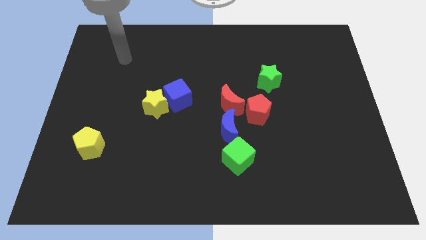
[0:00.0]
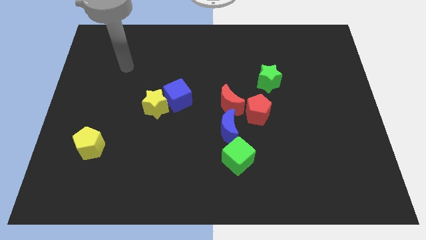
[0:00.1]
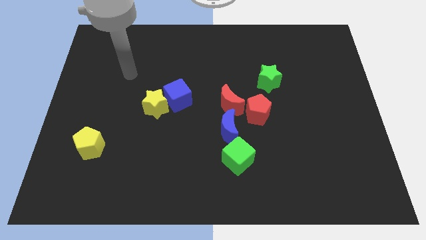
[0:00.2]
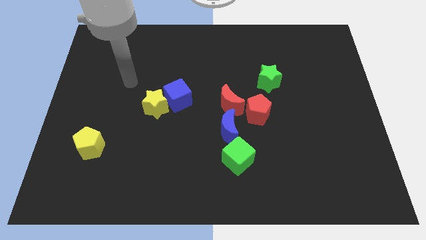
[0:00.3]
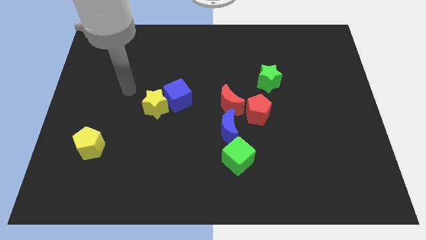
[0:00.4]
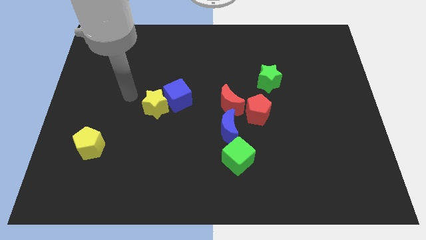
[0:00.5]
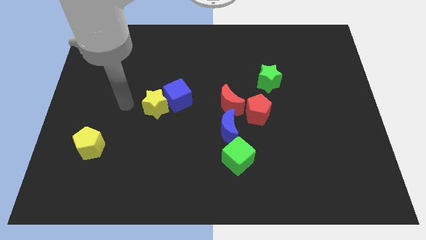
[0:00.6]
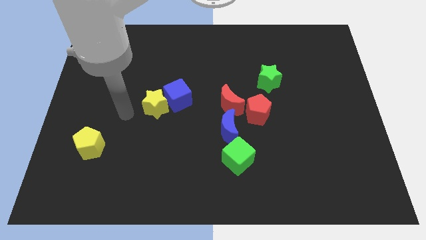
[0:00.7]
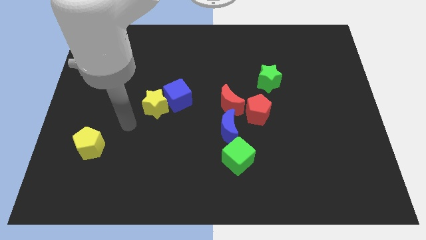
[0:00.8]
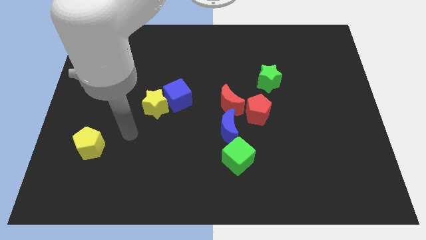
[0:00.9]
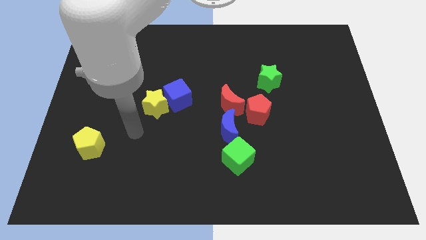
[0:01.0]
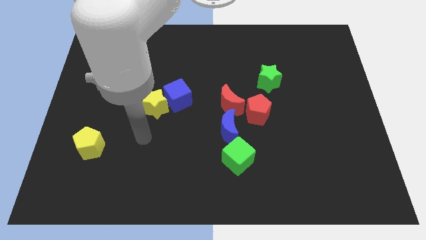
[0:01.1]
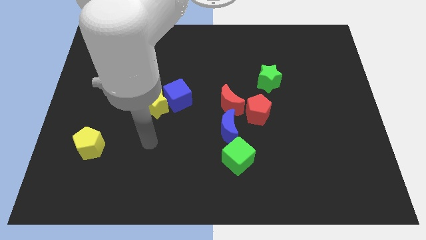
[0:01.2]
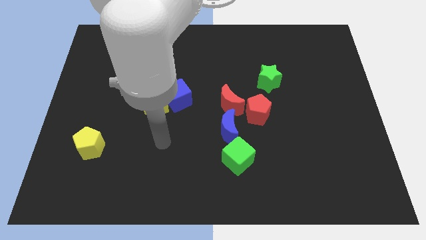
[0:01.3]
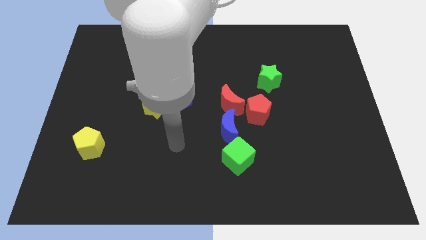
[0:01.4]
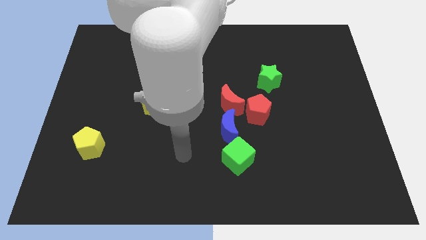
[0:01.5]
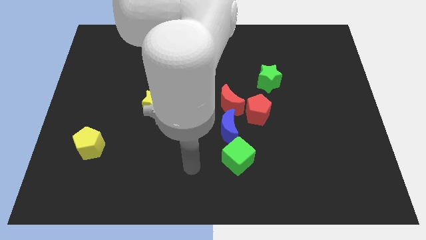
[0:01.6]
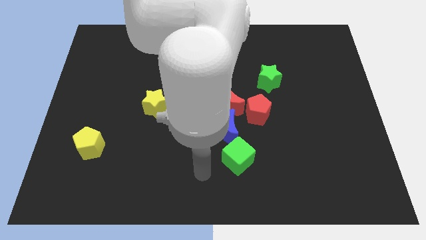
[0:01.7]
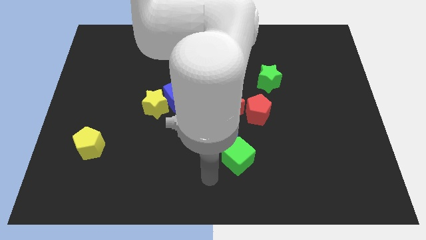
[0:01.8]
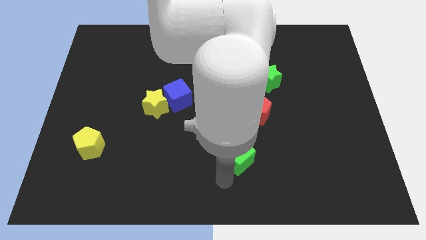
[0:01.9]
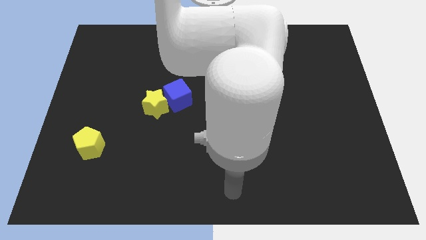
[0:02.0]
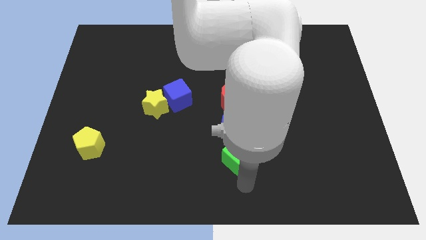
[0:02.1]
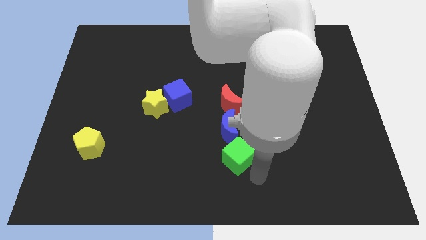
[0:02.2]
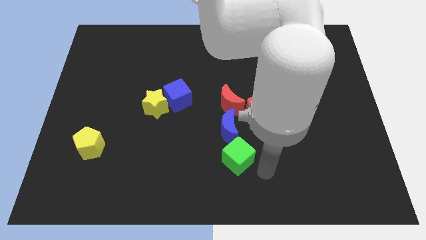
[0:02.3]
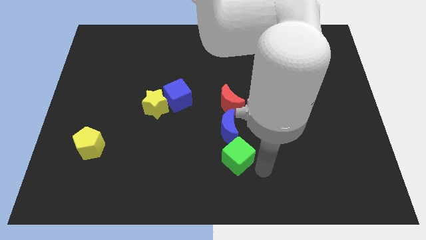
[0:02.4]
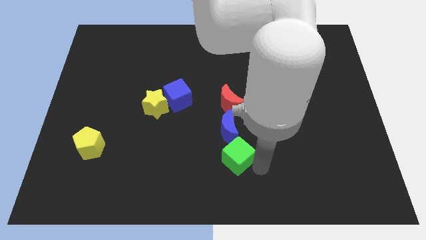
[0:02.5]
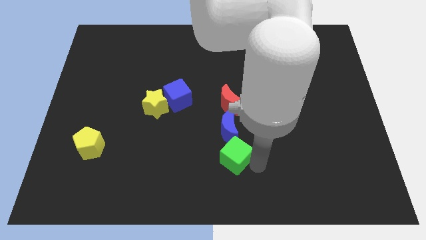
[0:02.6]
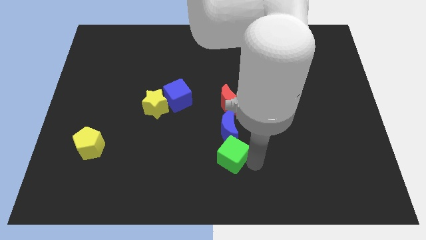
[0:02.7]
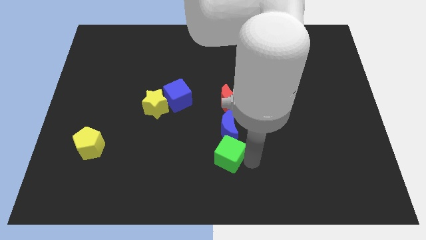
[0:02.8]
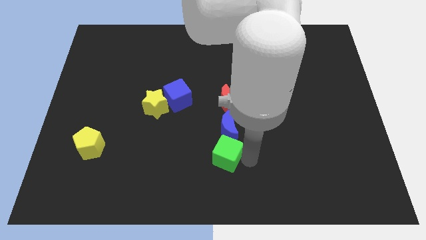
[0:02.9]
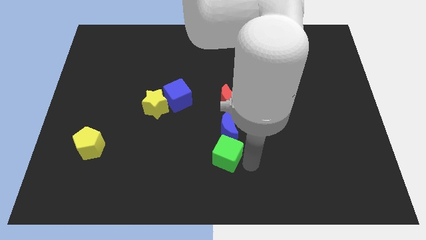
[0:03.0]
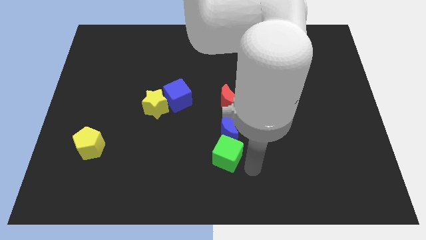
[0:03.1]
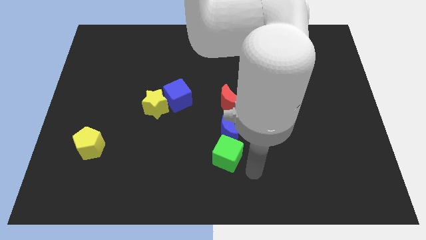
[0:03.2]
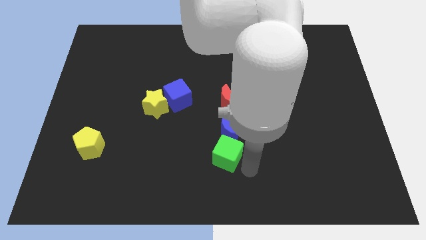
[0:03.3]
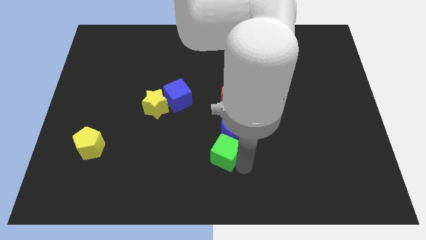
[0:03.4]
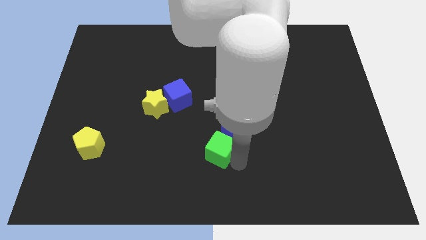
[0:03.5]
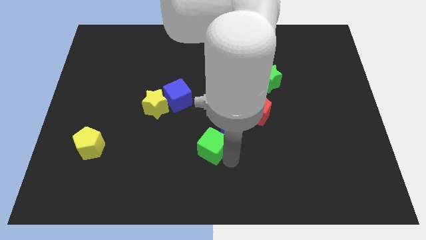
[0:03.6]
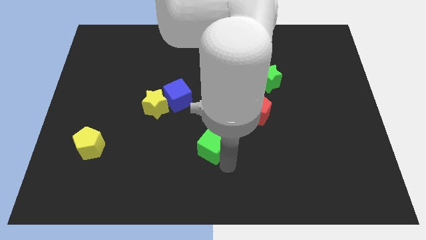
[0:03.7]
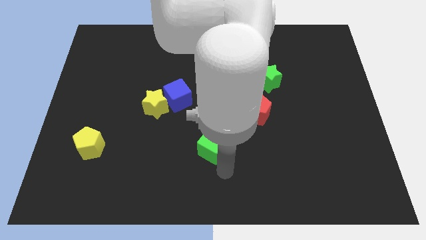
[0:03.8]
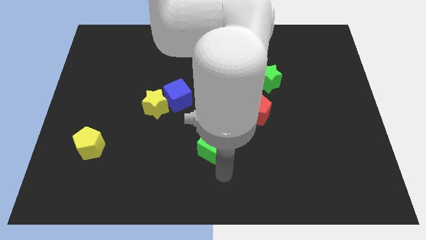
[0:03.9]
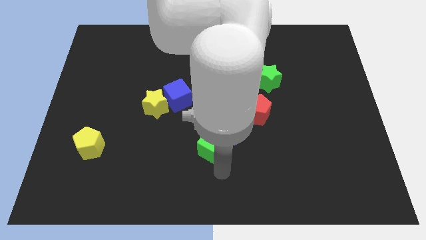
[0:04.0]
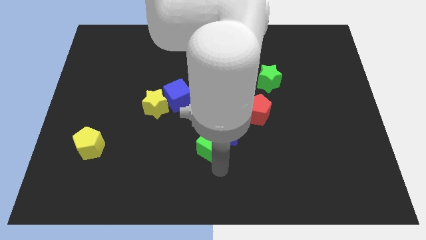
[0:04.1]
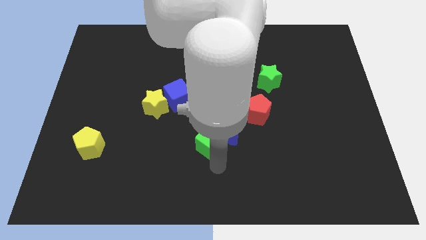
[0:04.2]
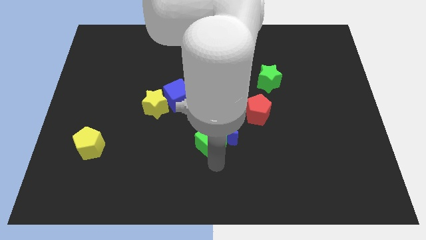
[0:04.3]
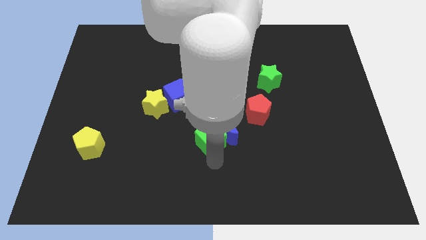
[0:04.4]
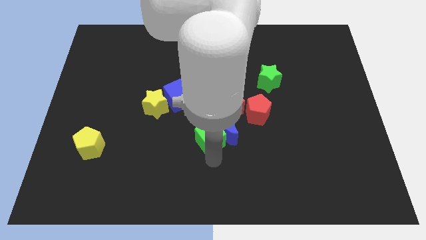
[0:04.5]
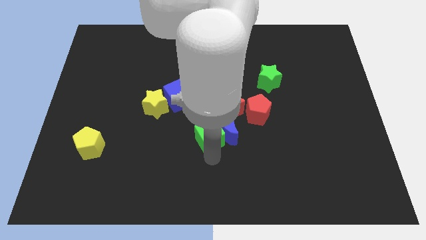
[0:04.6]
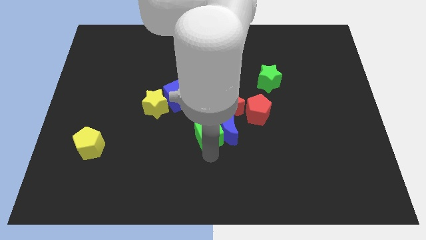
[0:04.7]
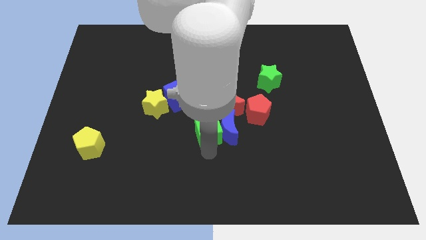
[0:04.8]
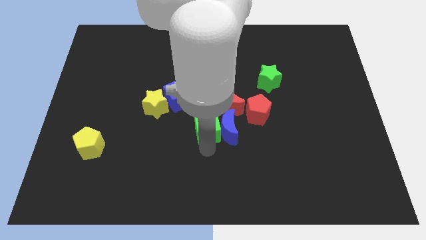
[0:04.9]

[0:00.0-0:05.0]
slide the green cube left of the red pentagon

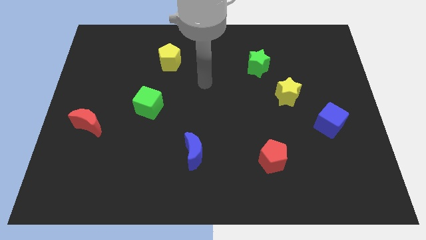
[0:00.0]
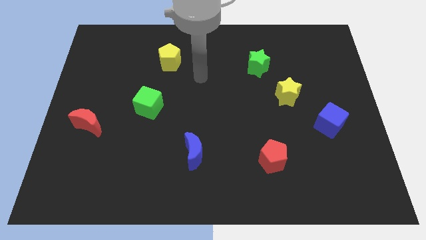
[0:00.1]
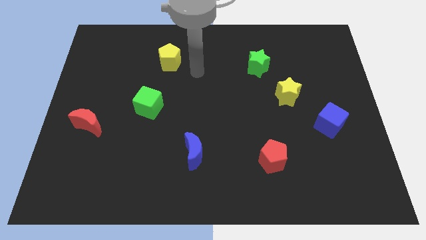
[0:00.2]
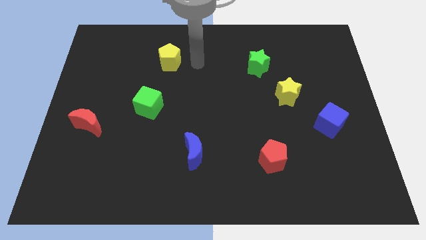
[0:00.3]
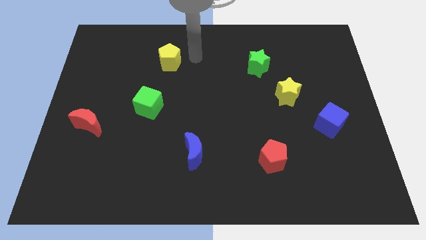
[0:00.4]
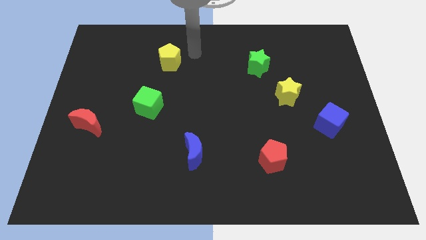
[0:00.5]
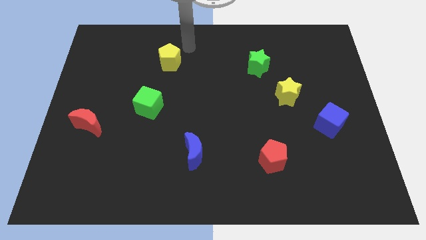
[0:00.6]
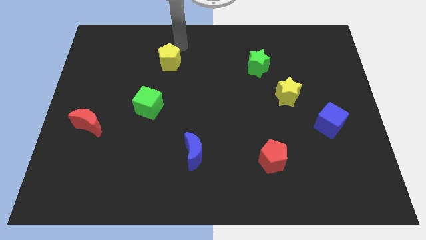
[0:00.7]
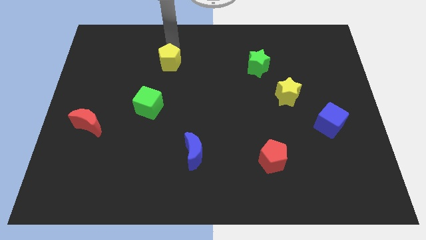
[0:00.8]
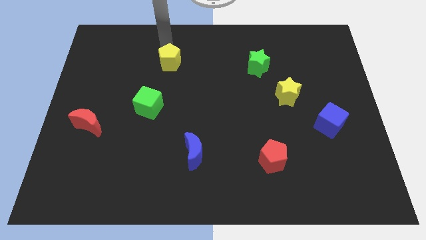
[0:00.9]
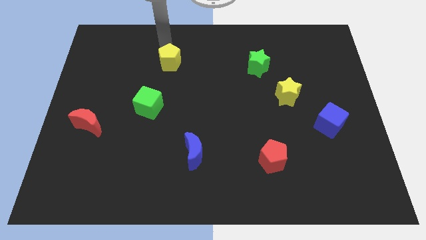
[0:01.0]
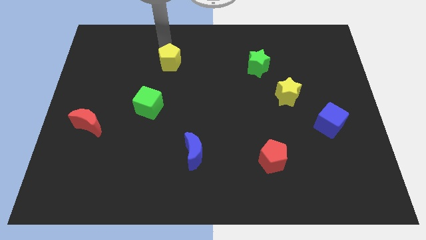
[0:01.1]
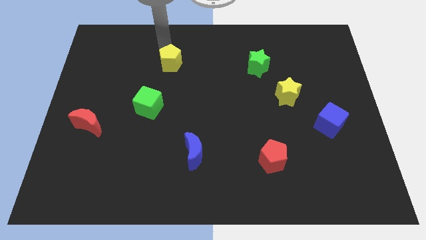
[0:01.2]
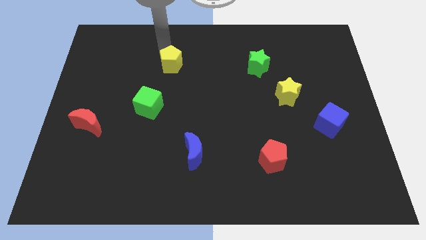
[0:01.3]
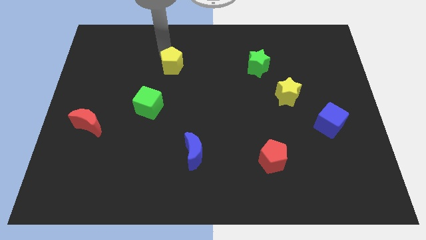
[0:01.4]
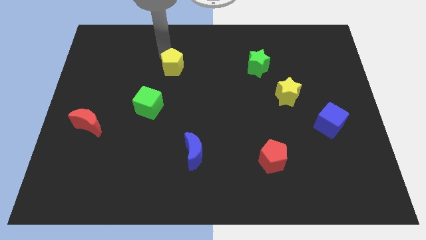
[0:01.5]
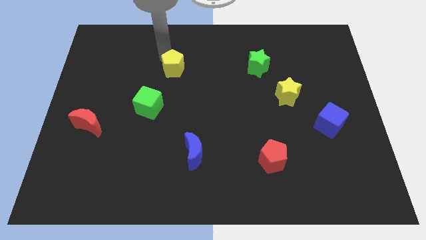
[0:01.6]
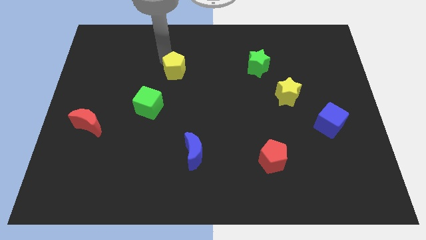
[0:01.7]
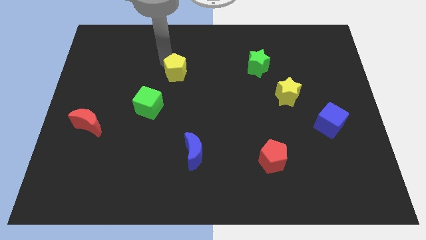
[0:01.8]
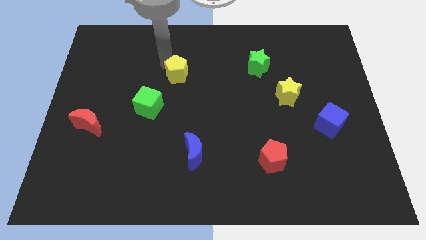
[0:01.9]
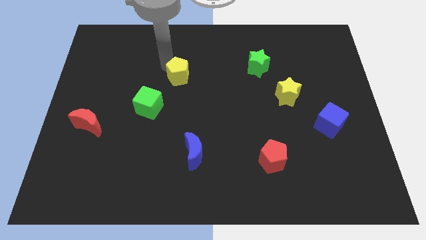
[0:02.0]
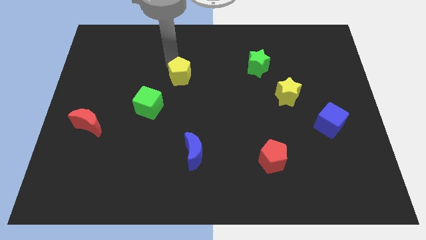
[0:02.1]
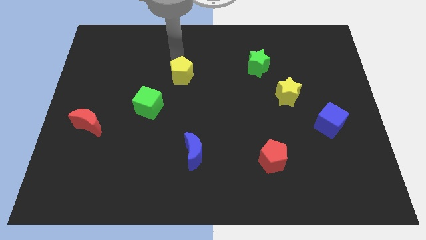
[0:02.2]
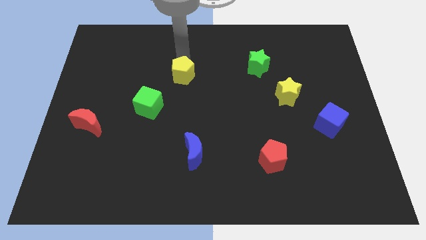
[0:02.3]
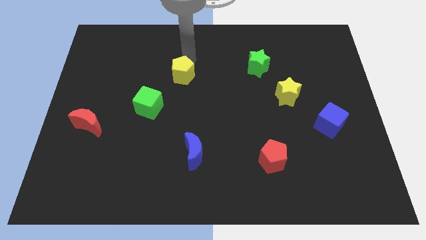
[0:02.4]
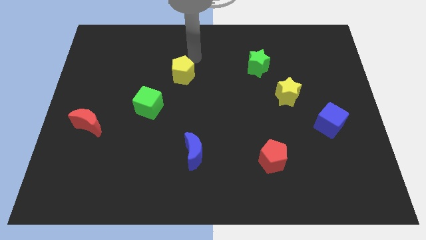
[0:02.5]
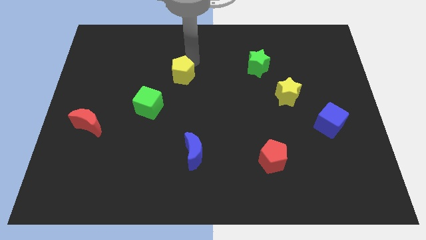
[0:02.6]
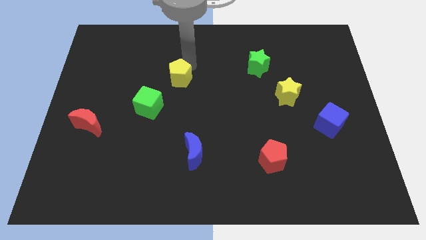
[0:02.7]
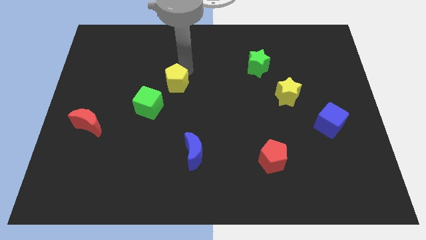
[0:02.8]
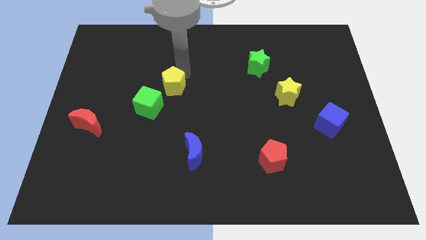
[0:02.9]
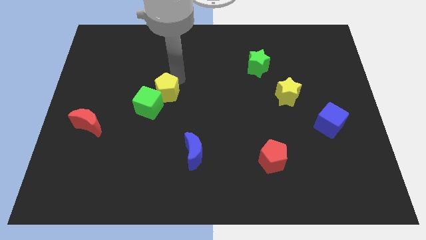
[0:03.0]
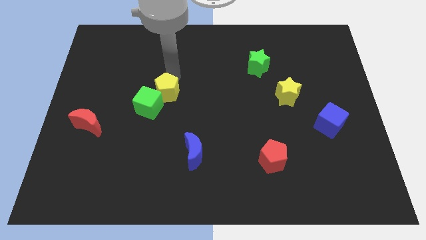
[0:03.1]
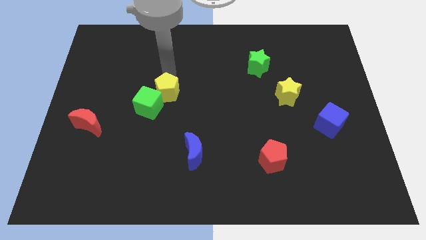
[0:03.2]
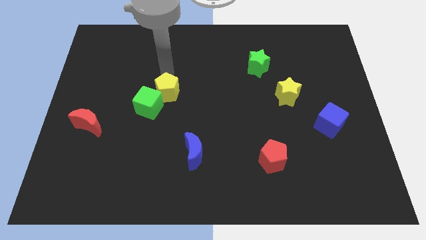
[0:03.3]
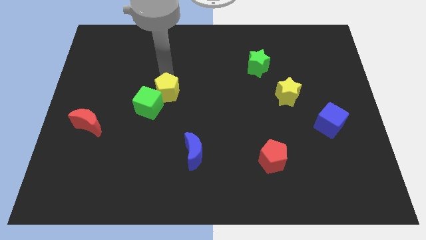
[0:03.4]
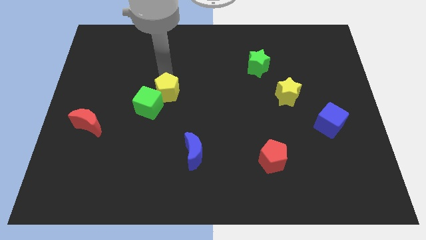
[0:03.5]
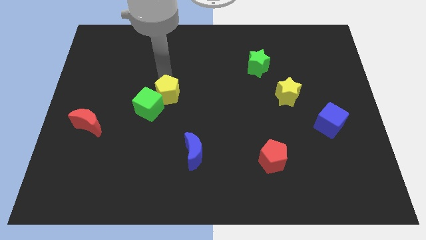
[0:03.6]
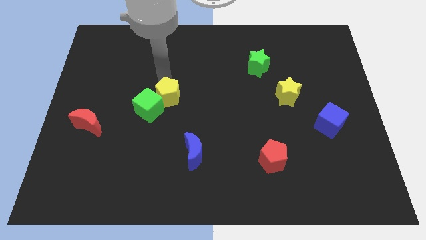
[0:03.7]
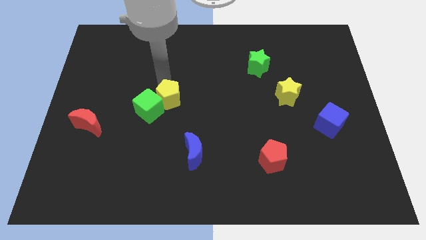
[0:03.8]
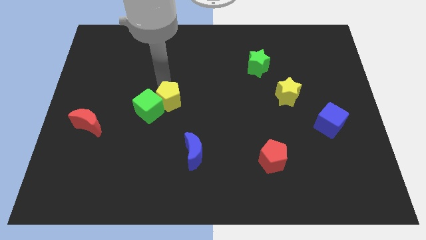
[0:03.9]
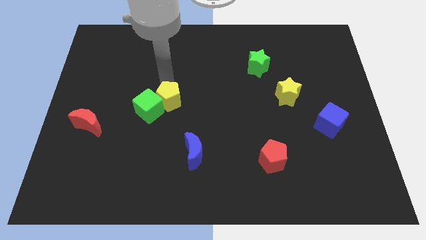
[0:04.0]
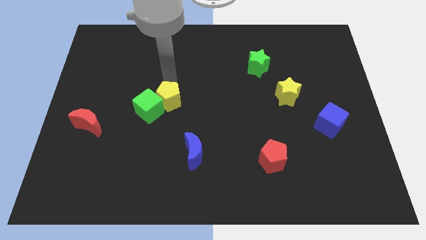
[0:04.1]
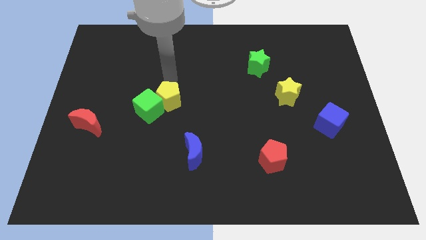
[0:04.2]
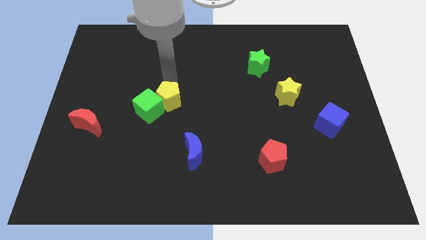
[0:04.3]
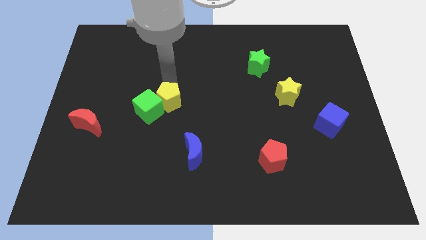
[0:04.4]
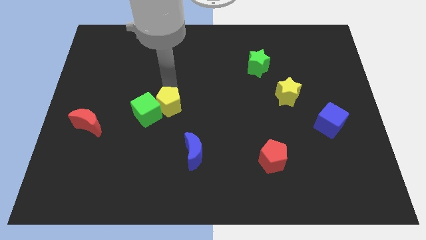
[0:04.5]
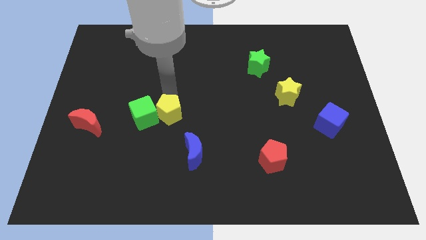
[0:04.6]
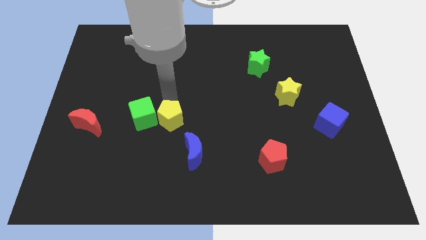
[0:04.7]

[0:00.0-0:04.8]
put the yellow pentagon to the top left side of the blue moon
